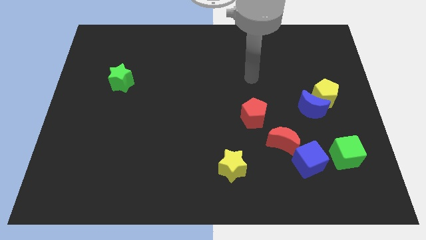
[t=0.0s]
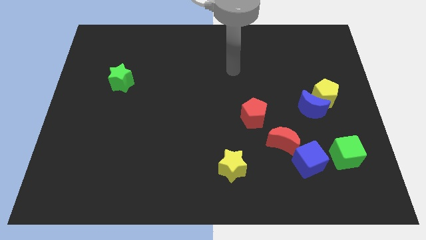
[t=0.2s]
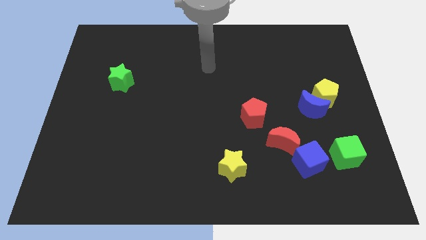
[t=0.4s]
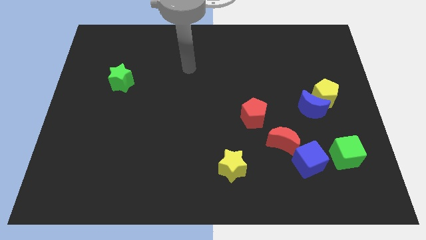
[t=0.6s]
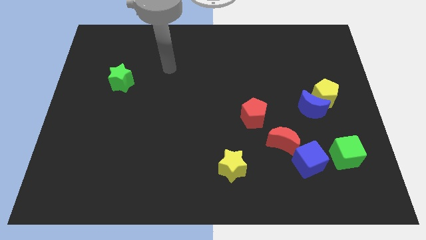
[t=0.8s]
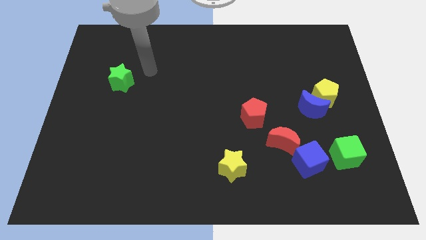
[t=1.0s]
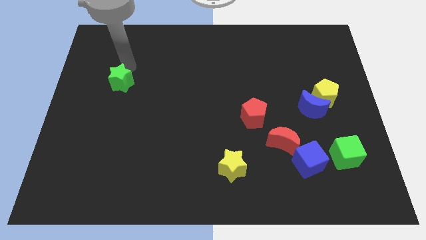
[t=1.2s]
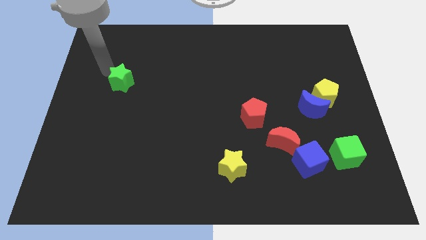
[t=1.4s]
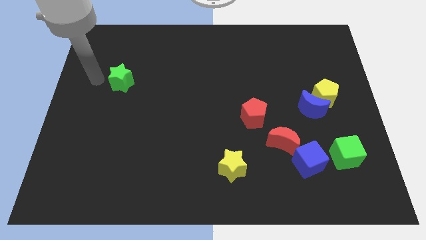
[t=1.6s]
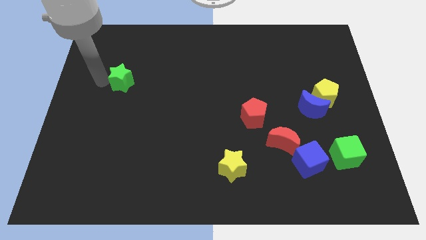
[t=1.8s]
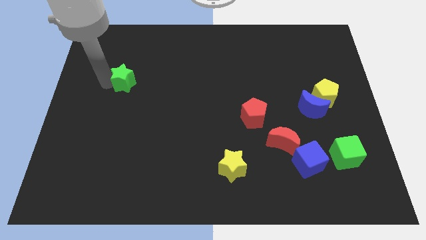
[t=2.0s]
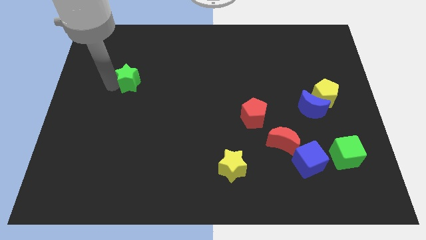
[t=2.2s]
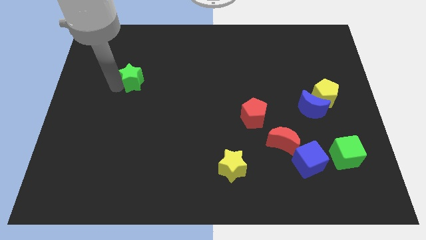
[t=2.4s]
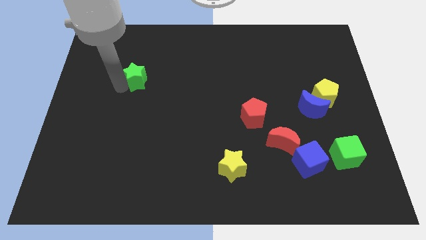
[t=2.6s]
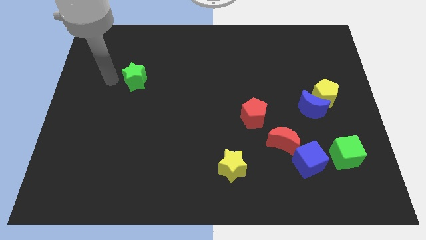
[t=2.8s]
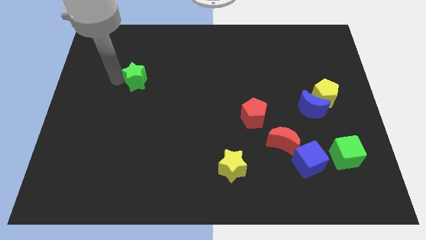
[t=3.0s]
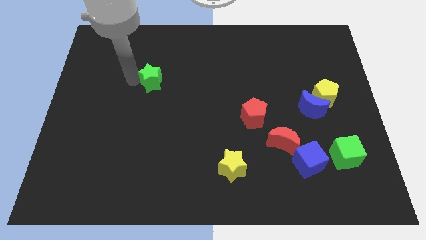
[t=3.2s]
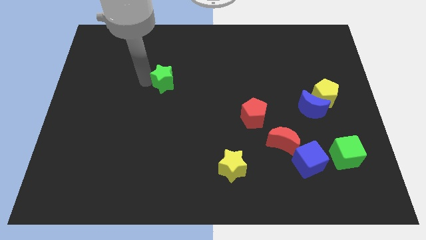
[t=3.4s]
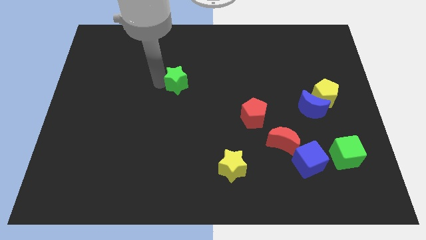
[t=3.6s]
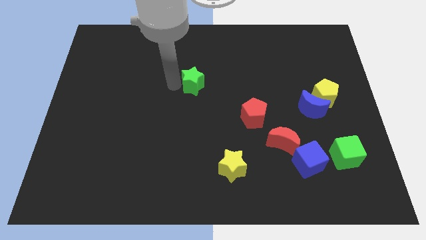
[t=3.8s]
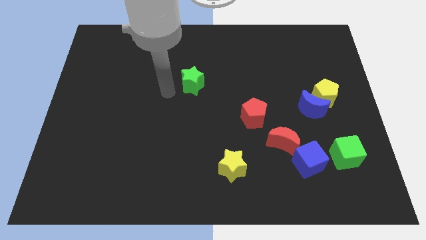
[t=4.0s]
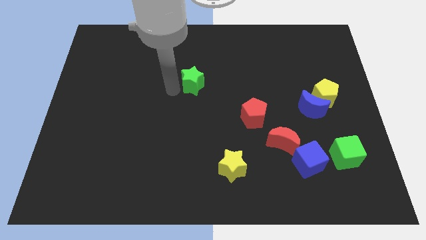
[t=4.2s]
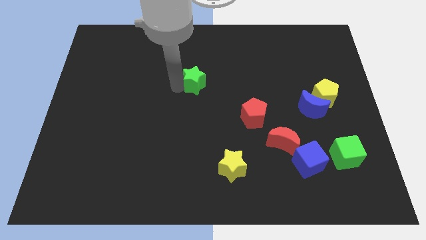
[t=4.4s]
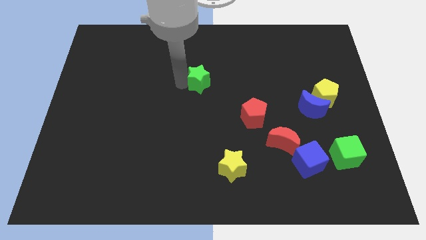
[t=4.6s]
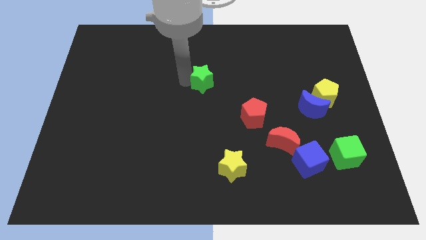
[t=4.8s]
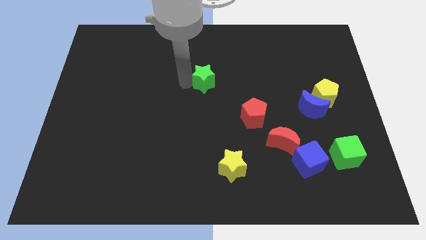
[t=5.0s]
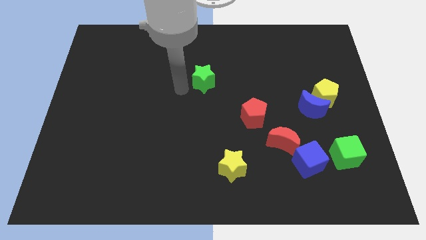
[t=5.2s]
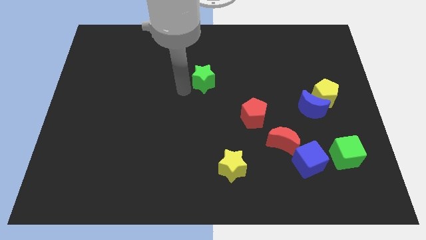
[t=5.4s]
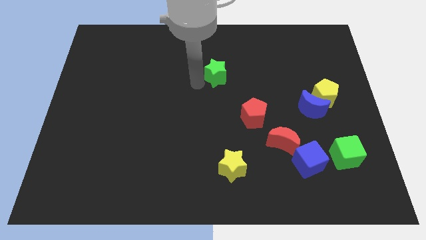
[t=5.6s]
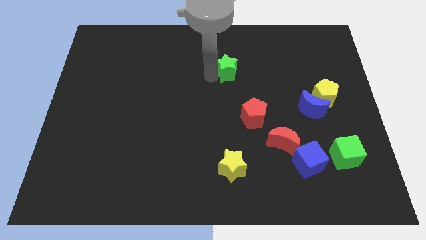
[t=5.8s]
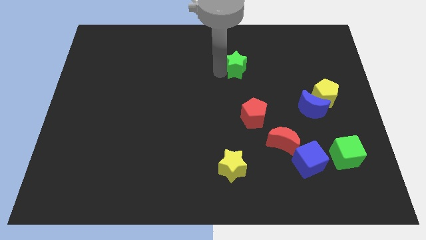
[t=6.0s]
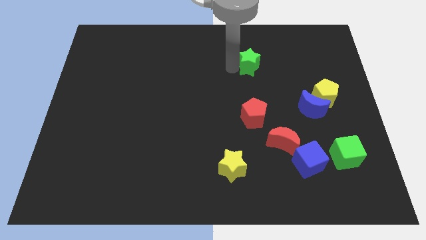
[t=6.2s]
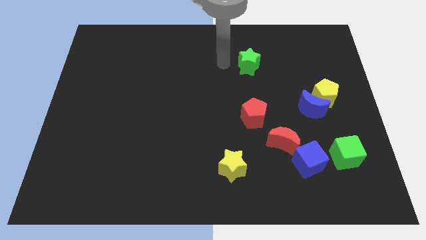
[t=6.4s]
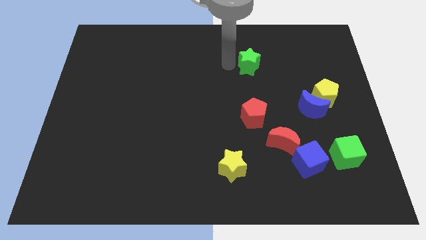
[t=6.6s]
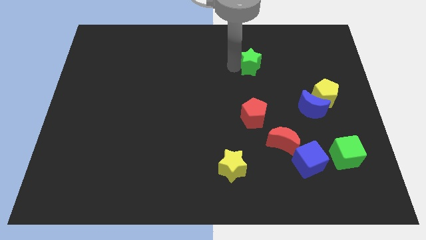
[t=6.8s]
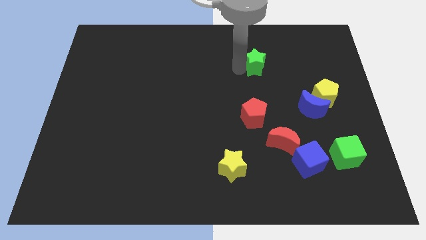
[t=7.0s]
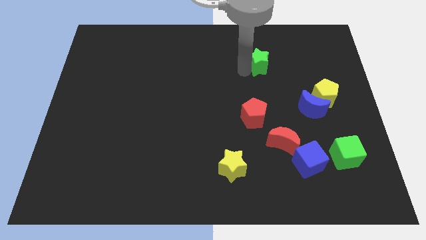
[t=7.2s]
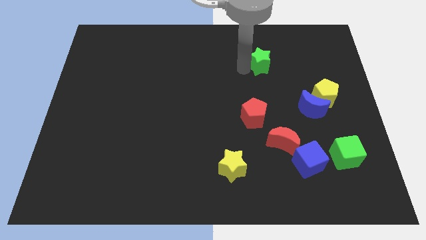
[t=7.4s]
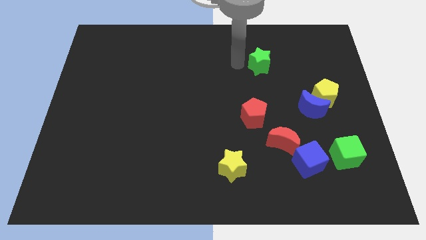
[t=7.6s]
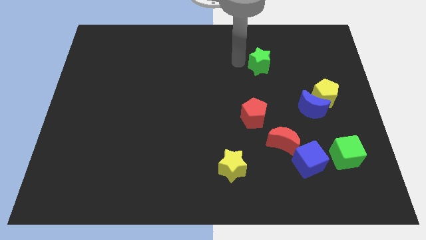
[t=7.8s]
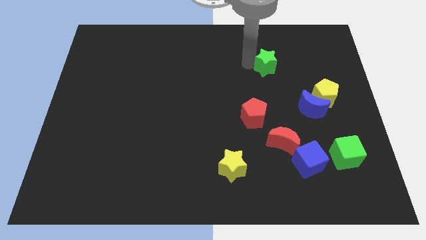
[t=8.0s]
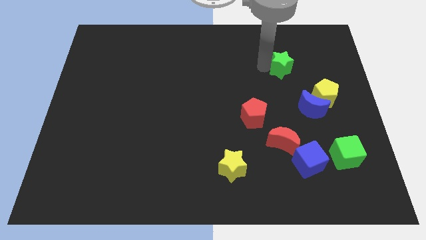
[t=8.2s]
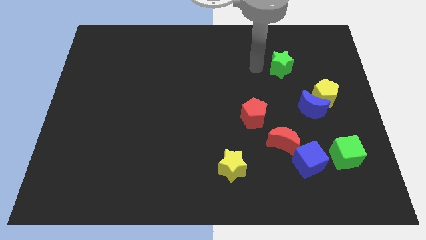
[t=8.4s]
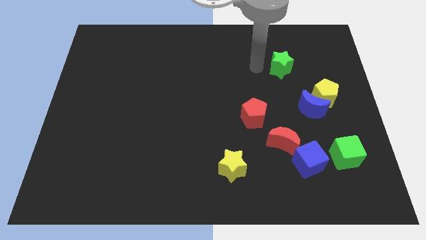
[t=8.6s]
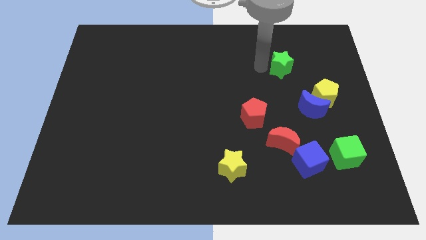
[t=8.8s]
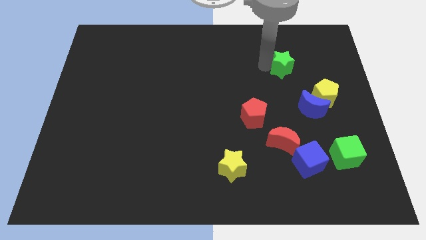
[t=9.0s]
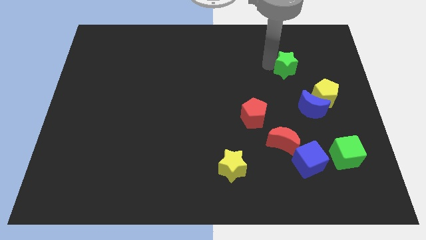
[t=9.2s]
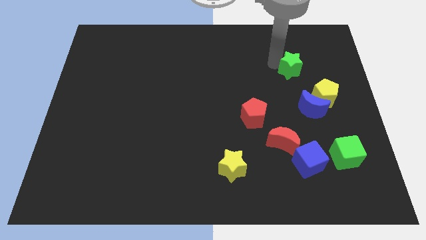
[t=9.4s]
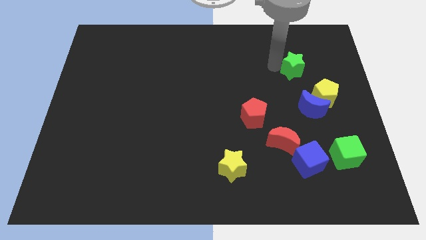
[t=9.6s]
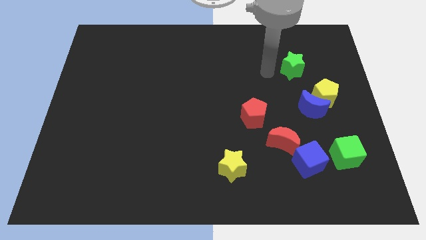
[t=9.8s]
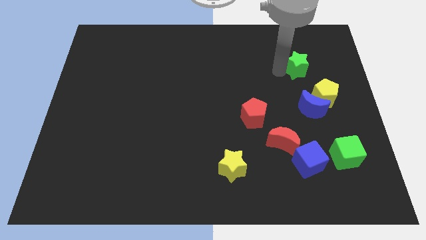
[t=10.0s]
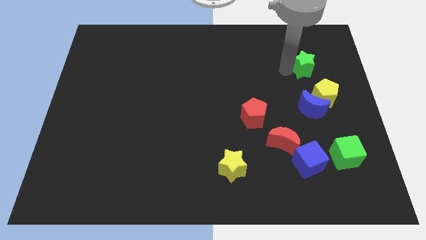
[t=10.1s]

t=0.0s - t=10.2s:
slide the green star to the top side of the yellow pentagon

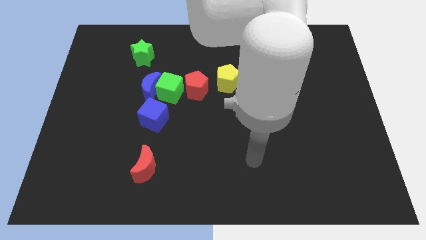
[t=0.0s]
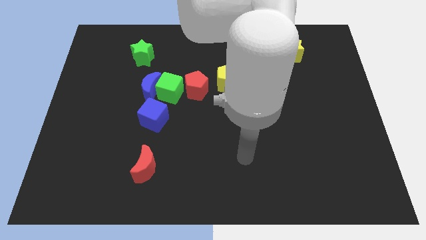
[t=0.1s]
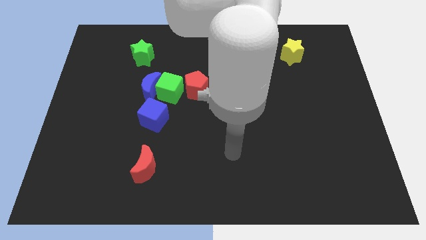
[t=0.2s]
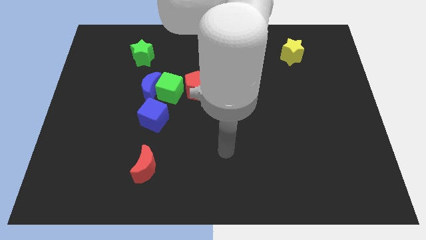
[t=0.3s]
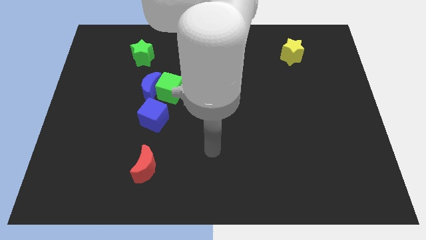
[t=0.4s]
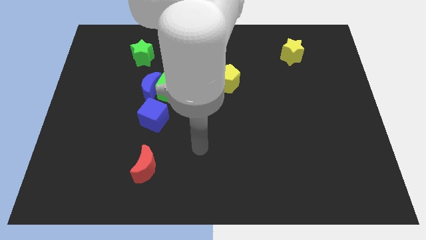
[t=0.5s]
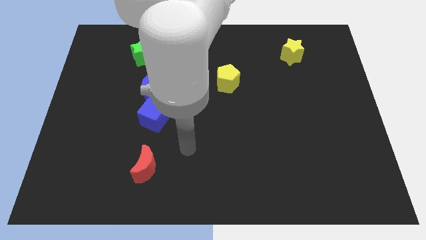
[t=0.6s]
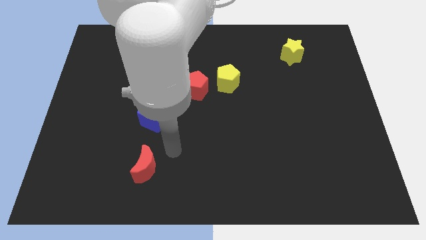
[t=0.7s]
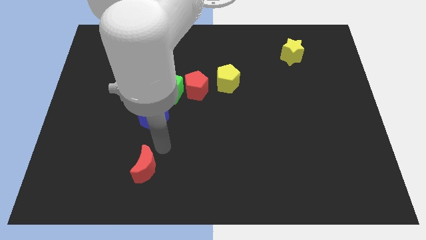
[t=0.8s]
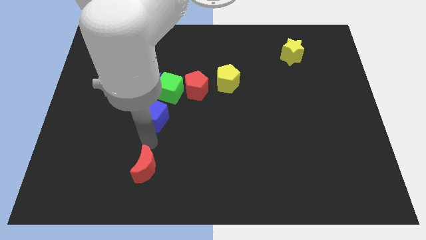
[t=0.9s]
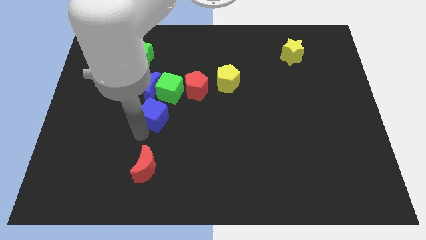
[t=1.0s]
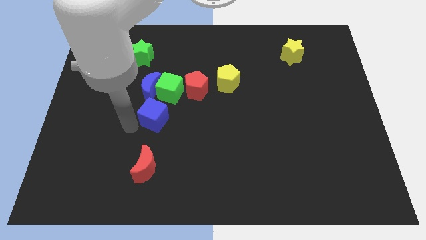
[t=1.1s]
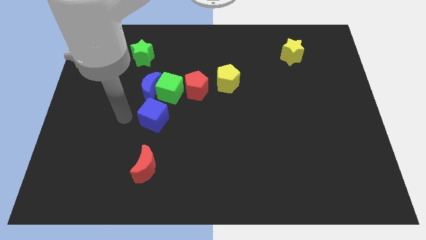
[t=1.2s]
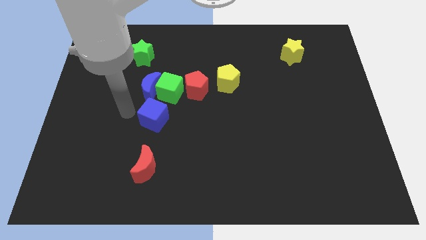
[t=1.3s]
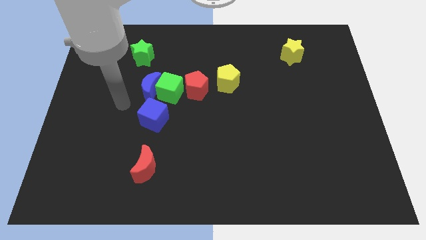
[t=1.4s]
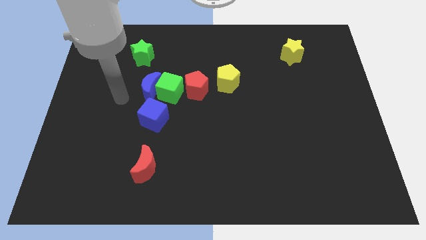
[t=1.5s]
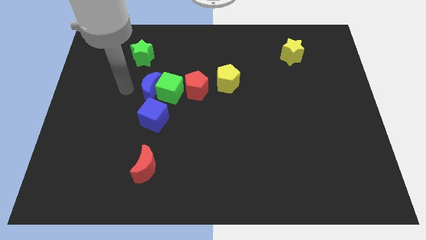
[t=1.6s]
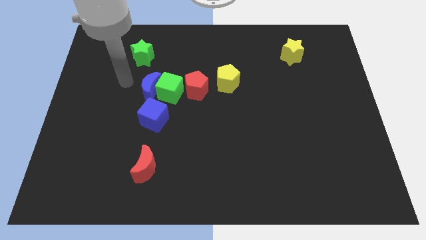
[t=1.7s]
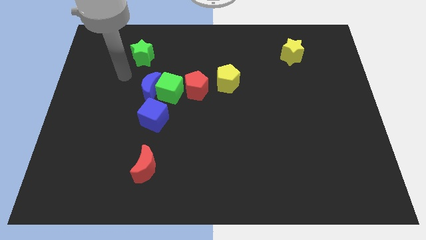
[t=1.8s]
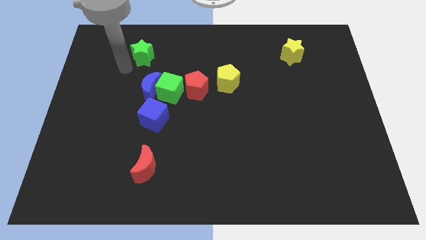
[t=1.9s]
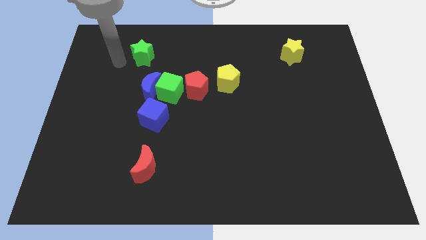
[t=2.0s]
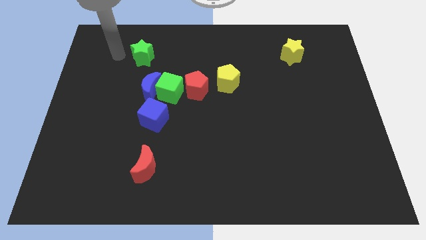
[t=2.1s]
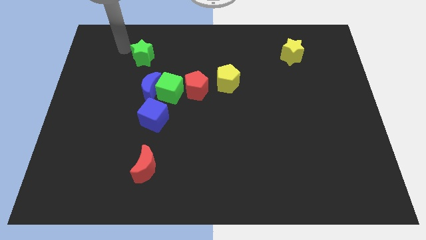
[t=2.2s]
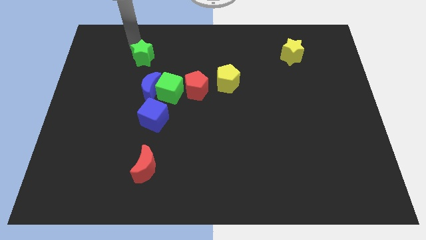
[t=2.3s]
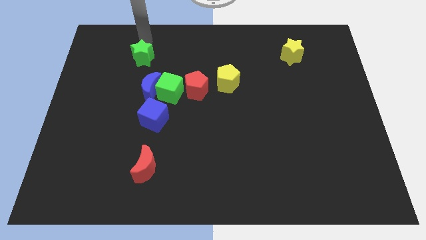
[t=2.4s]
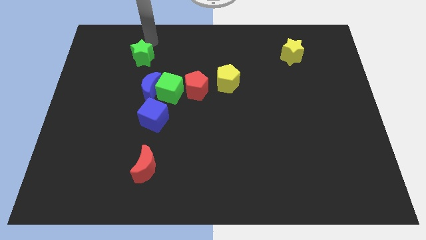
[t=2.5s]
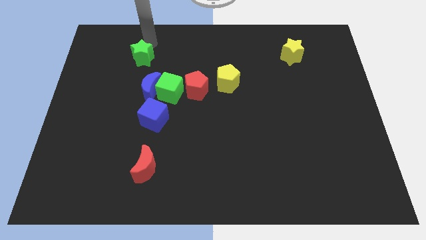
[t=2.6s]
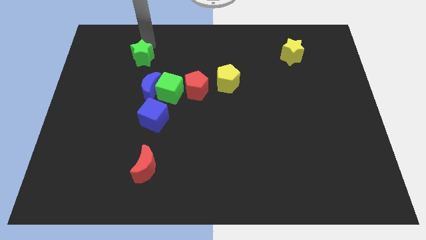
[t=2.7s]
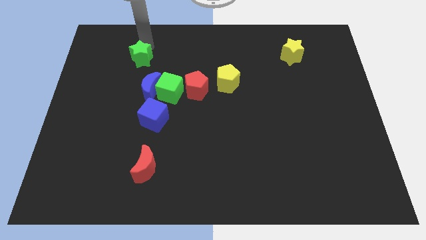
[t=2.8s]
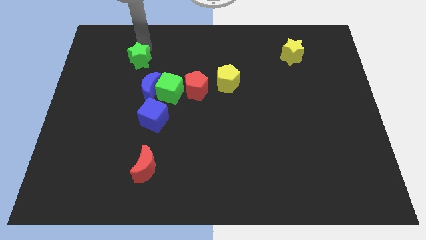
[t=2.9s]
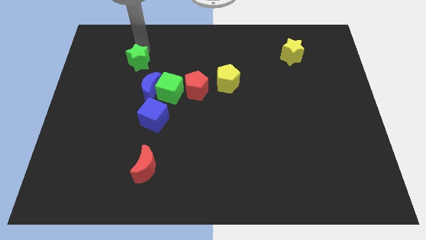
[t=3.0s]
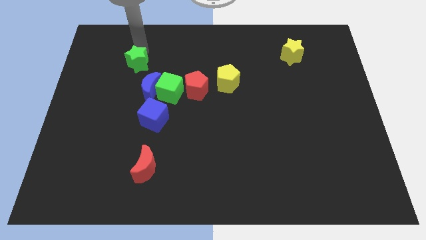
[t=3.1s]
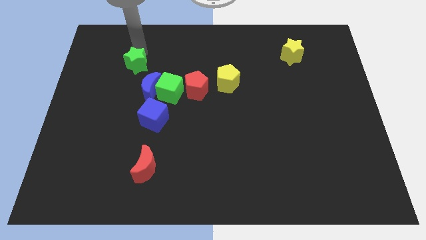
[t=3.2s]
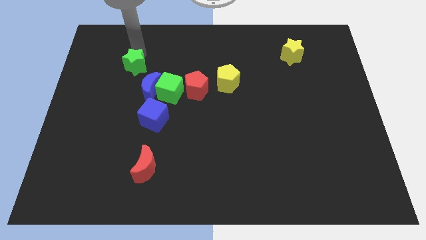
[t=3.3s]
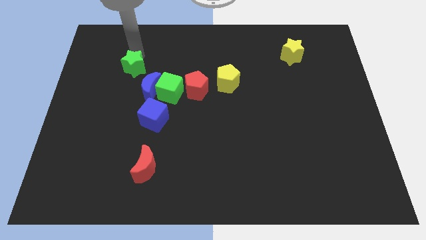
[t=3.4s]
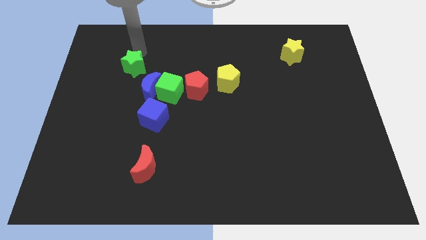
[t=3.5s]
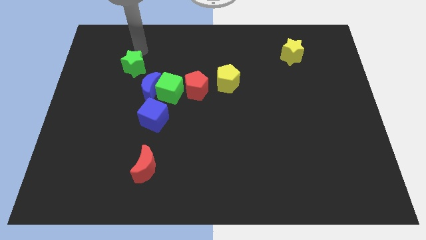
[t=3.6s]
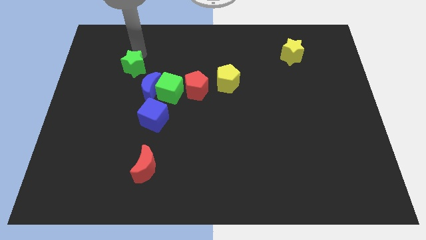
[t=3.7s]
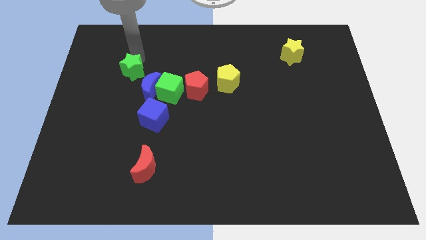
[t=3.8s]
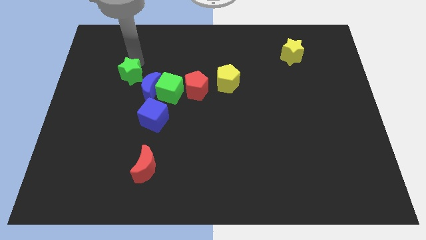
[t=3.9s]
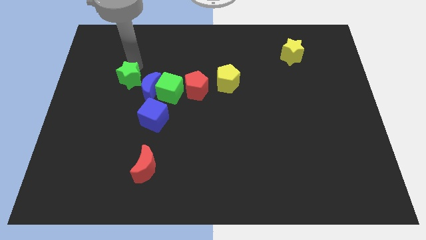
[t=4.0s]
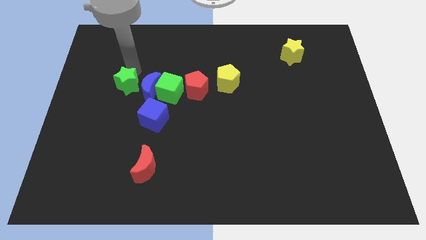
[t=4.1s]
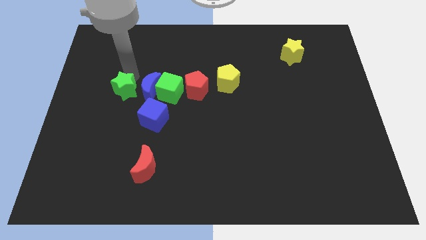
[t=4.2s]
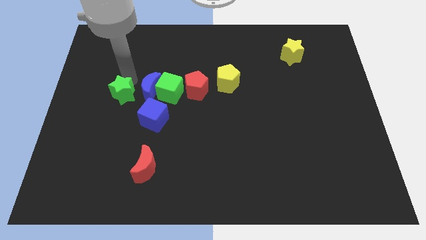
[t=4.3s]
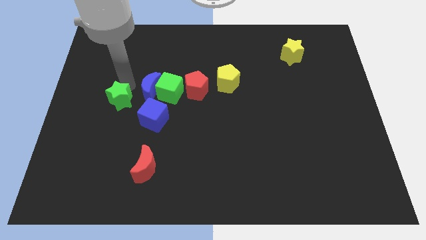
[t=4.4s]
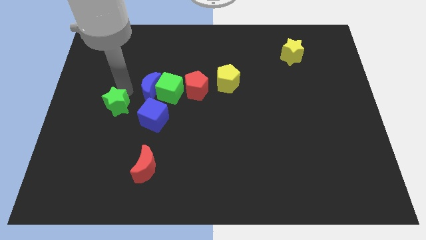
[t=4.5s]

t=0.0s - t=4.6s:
slide the green star left of the blue cube
